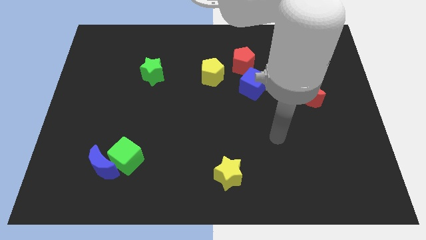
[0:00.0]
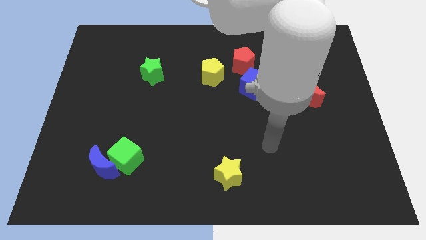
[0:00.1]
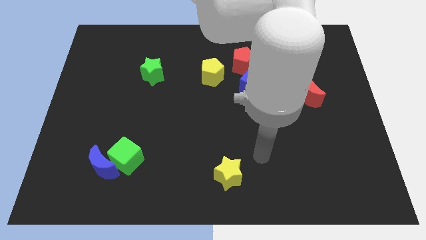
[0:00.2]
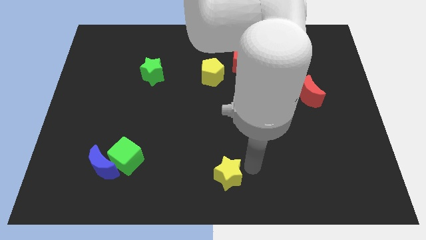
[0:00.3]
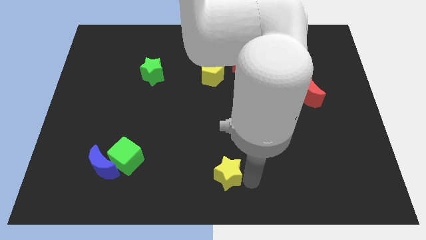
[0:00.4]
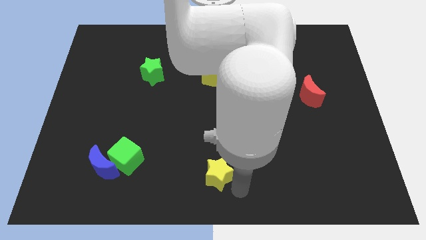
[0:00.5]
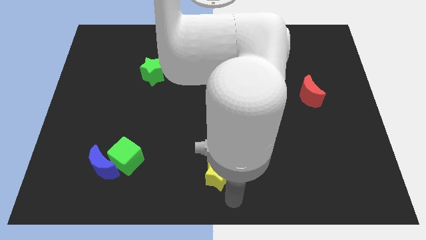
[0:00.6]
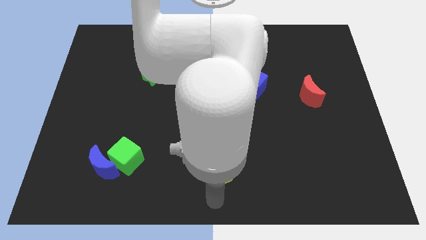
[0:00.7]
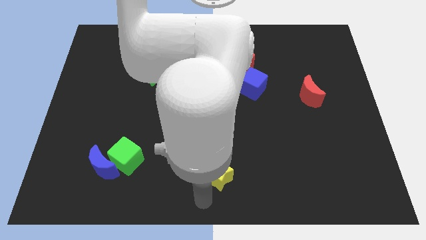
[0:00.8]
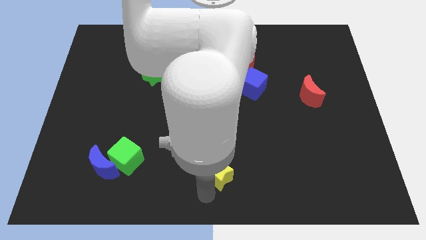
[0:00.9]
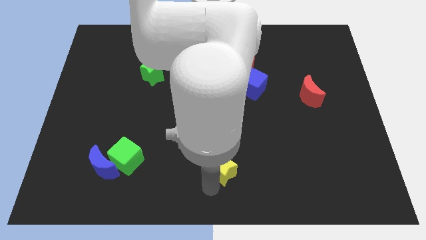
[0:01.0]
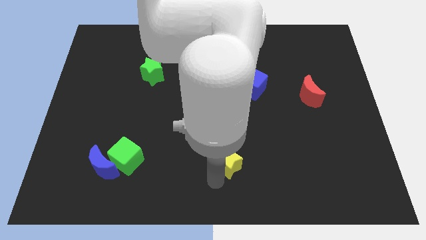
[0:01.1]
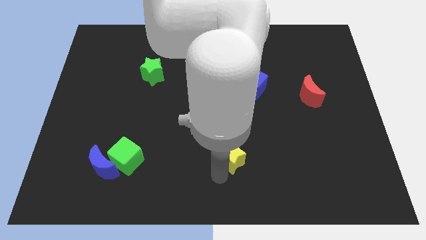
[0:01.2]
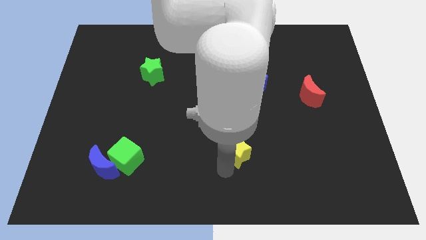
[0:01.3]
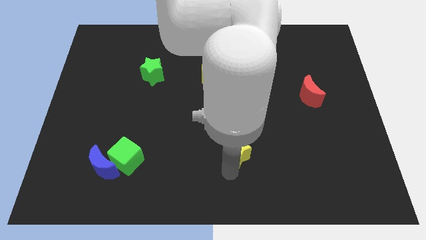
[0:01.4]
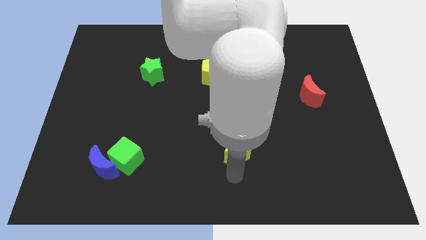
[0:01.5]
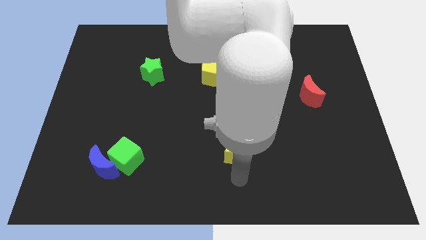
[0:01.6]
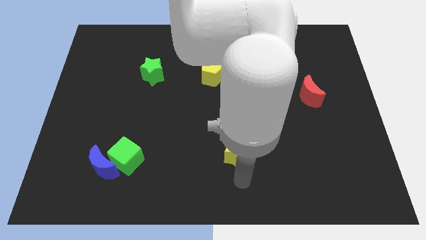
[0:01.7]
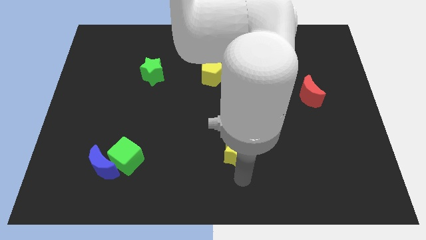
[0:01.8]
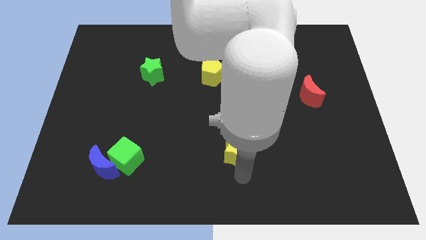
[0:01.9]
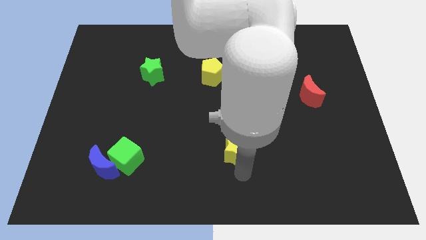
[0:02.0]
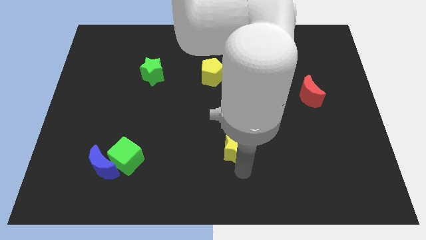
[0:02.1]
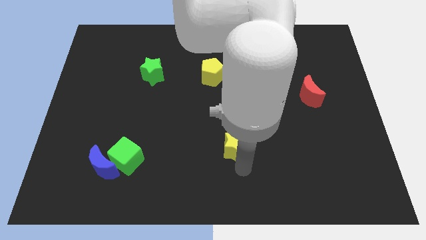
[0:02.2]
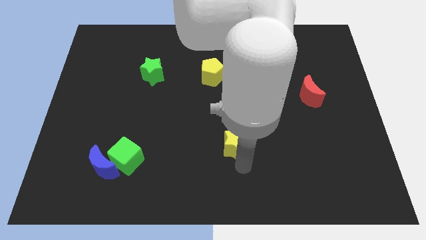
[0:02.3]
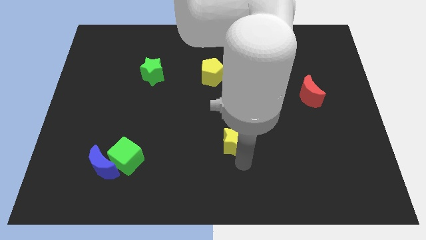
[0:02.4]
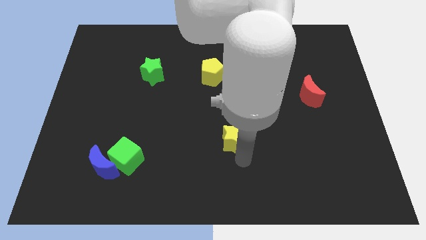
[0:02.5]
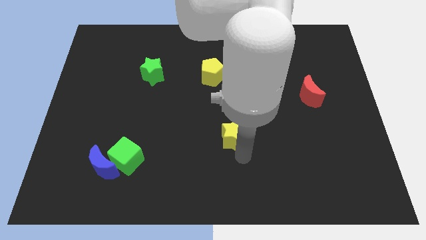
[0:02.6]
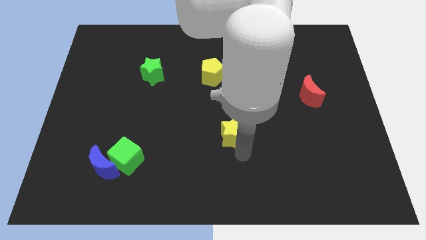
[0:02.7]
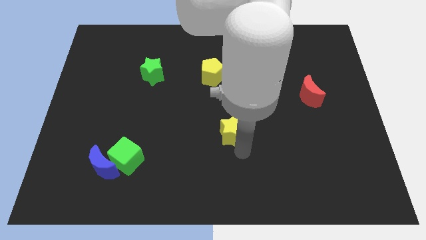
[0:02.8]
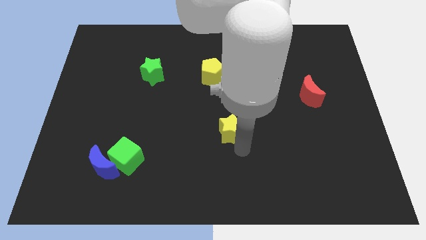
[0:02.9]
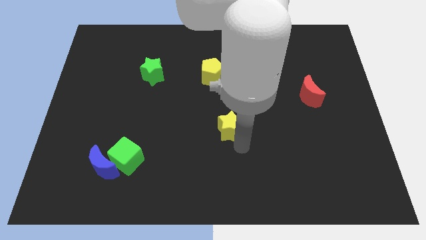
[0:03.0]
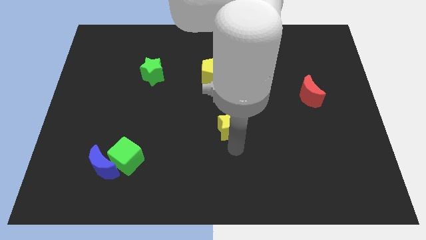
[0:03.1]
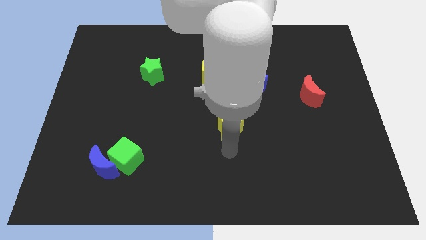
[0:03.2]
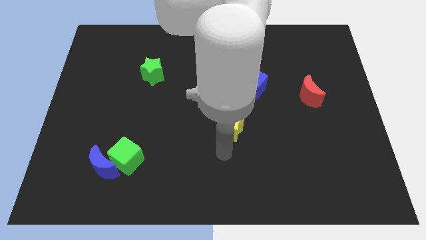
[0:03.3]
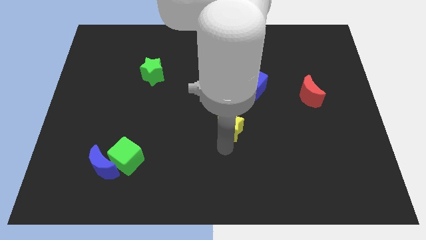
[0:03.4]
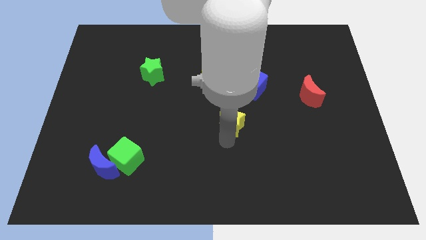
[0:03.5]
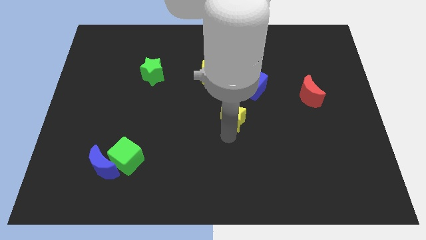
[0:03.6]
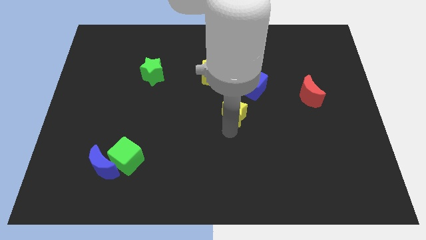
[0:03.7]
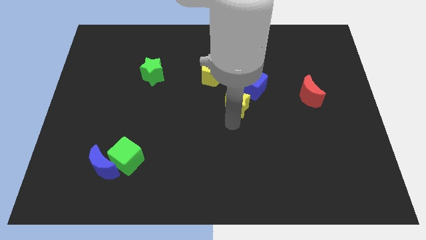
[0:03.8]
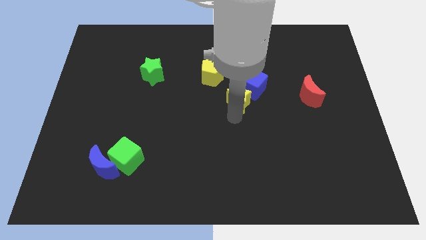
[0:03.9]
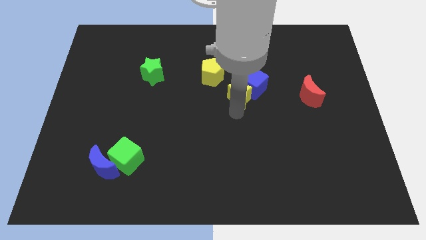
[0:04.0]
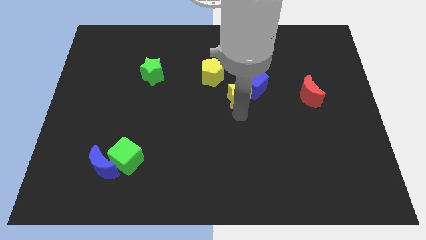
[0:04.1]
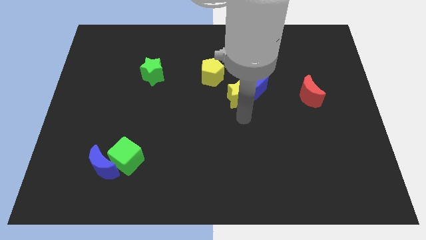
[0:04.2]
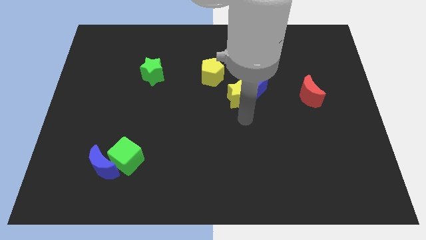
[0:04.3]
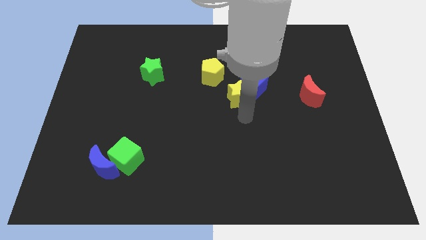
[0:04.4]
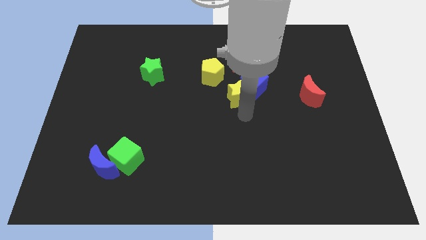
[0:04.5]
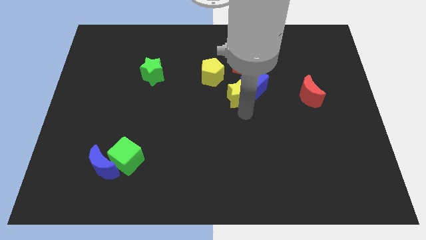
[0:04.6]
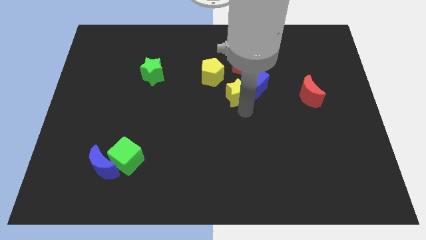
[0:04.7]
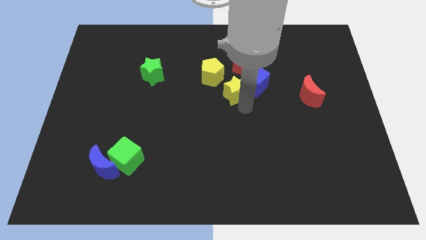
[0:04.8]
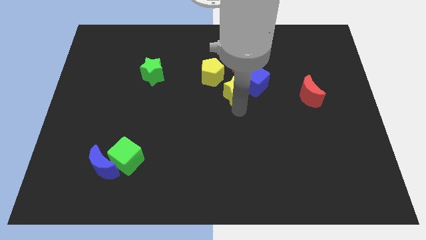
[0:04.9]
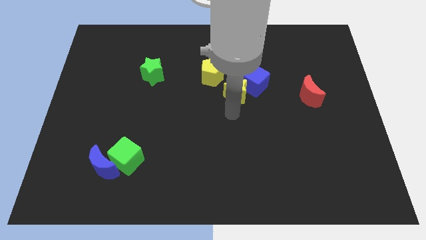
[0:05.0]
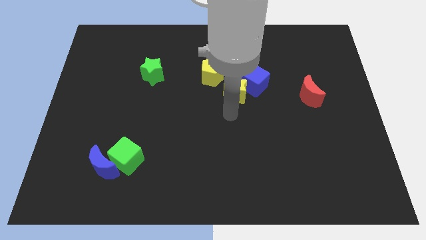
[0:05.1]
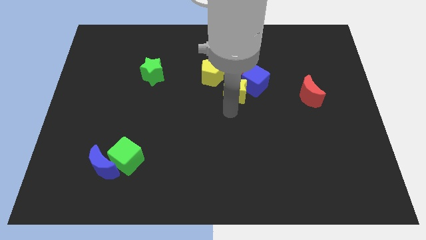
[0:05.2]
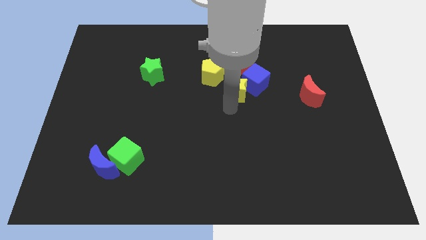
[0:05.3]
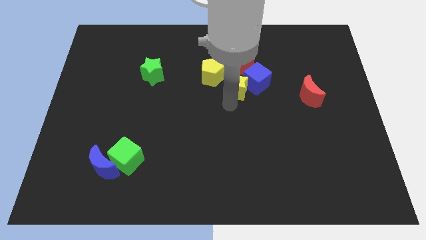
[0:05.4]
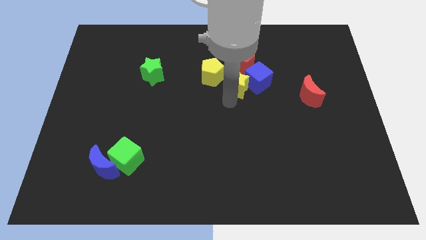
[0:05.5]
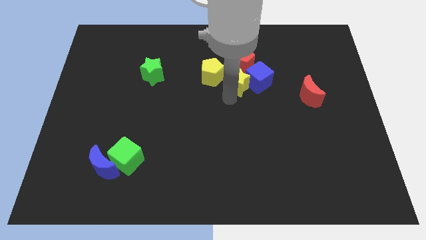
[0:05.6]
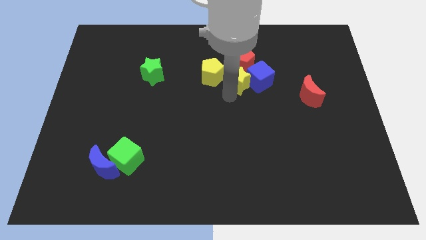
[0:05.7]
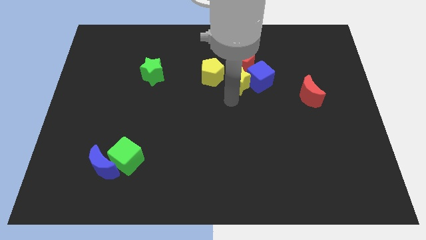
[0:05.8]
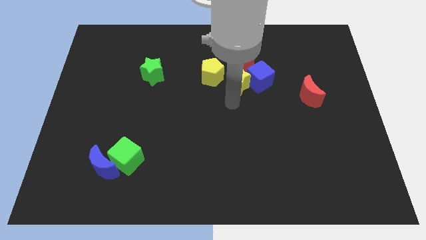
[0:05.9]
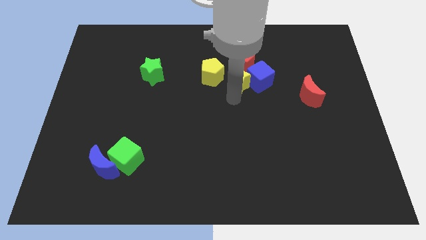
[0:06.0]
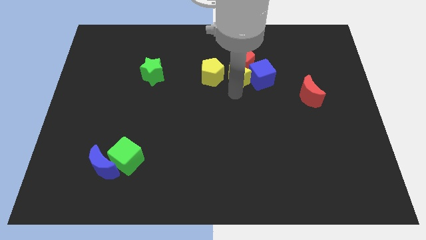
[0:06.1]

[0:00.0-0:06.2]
slide the yellow star next to the red pentagon

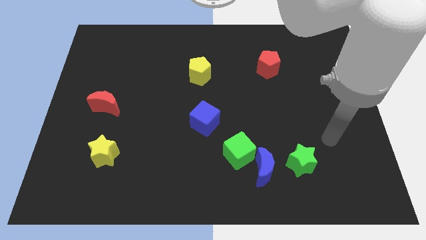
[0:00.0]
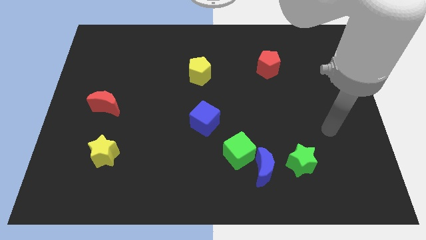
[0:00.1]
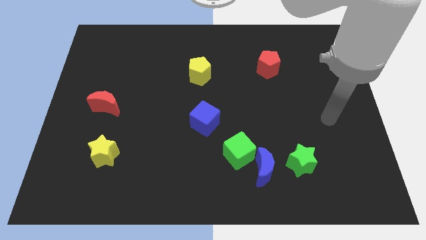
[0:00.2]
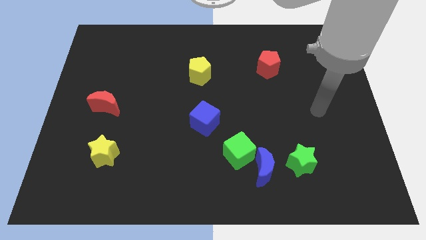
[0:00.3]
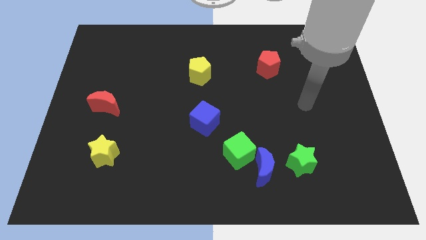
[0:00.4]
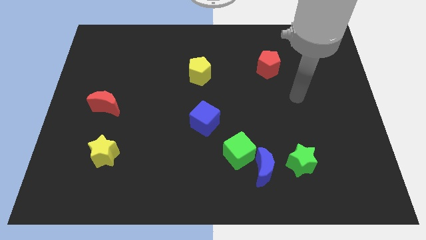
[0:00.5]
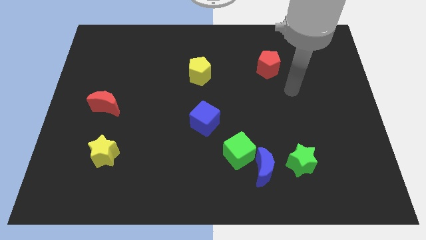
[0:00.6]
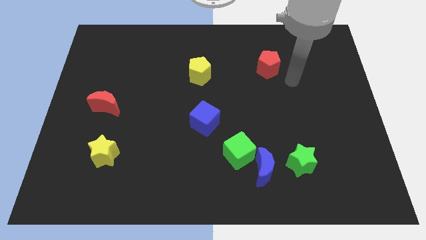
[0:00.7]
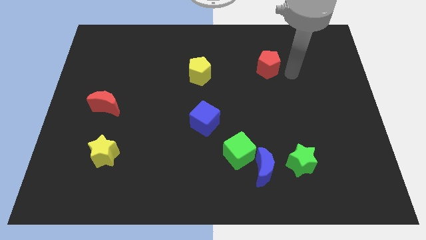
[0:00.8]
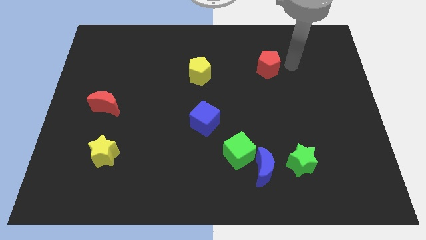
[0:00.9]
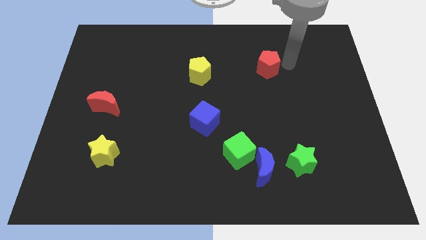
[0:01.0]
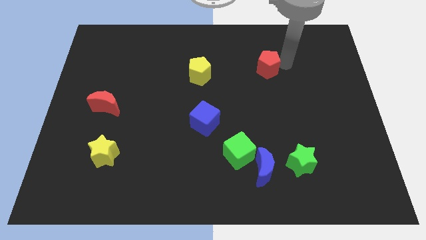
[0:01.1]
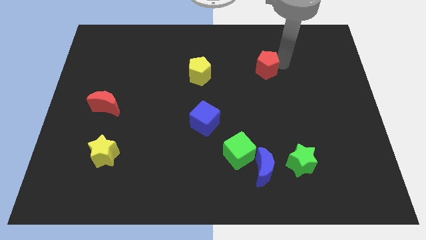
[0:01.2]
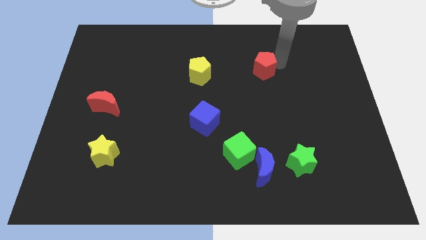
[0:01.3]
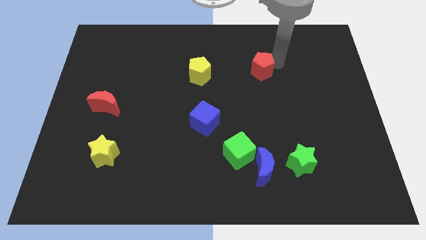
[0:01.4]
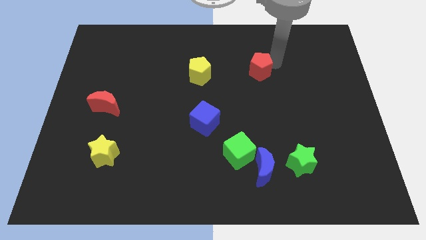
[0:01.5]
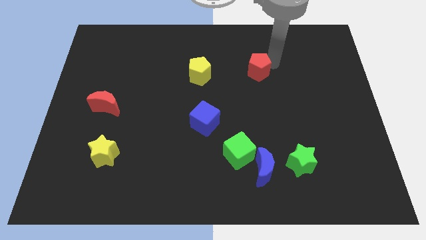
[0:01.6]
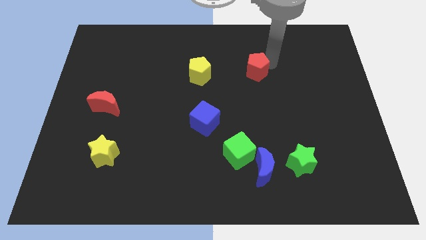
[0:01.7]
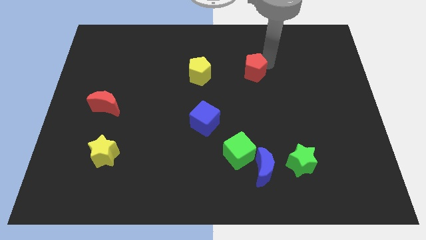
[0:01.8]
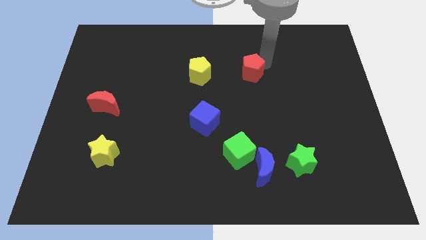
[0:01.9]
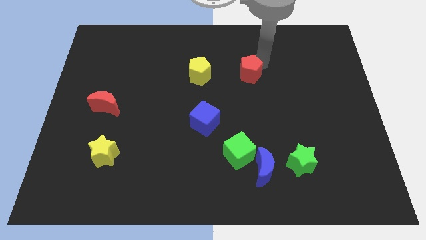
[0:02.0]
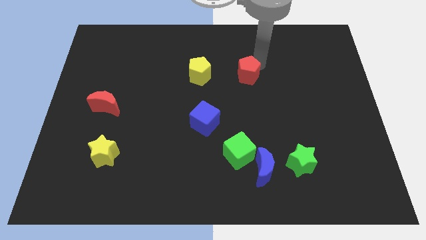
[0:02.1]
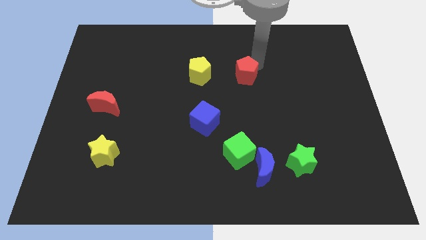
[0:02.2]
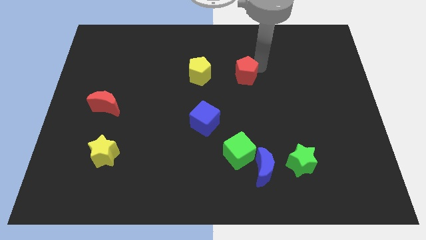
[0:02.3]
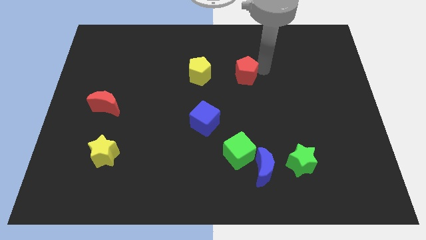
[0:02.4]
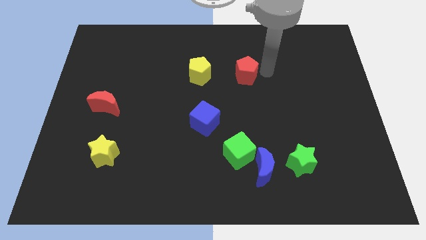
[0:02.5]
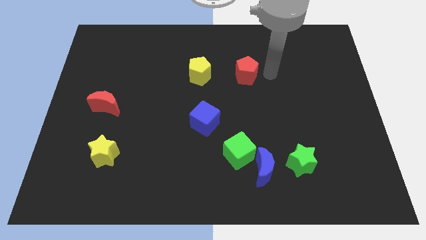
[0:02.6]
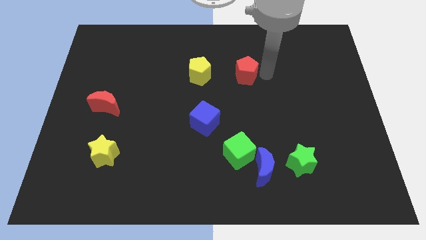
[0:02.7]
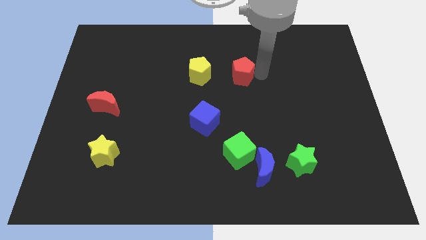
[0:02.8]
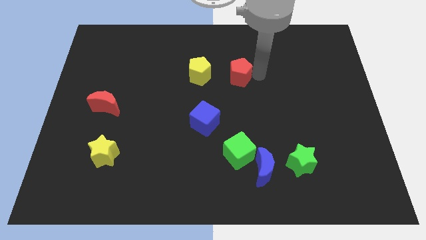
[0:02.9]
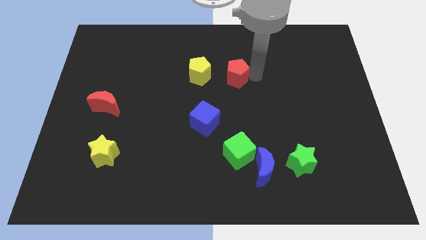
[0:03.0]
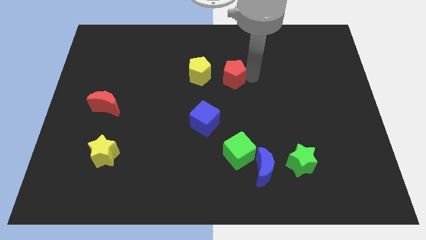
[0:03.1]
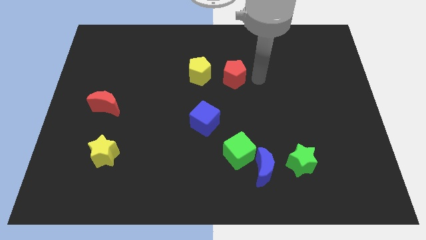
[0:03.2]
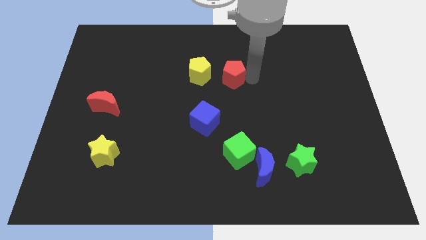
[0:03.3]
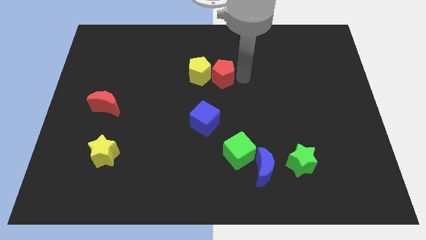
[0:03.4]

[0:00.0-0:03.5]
move the red pentagon next to the yellow pentagon
